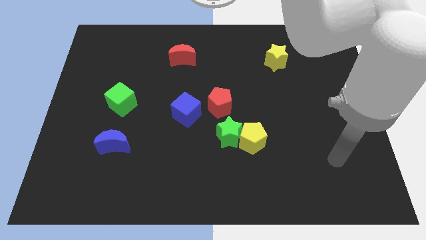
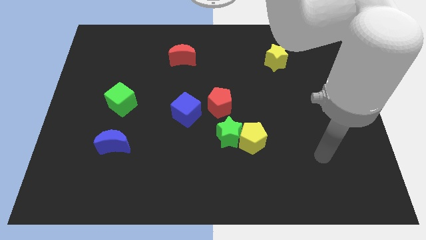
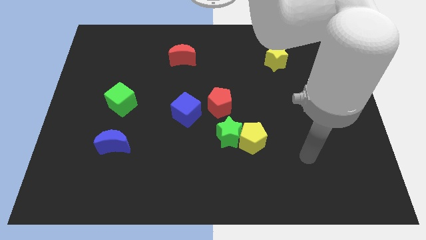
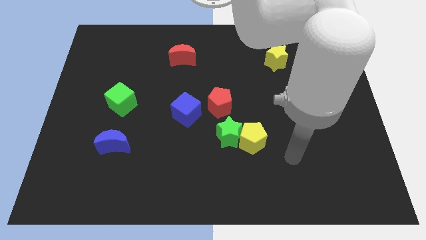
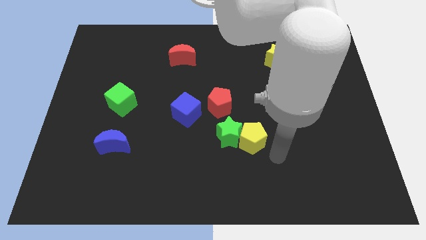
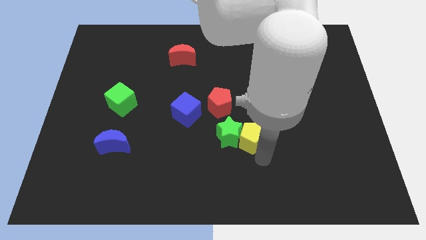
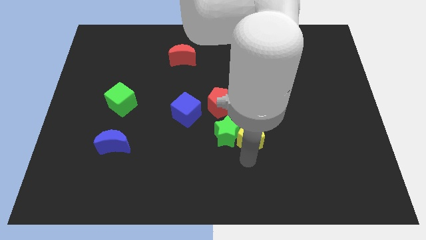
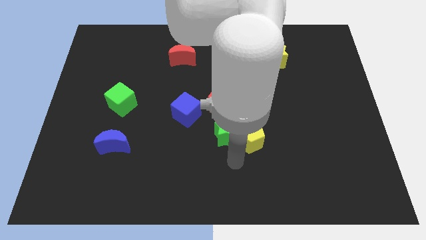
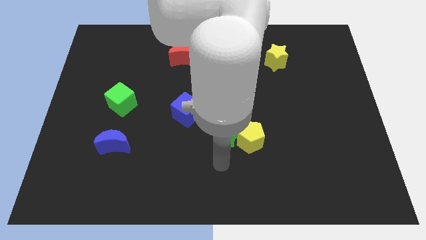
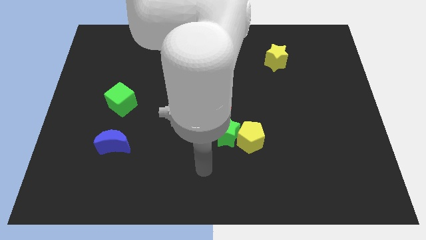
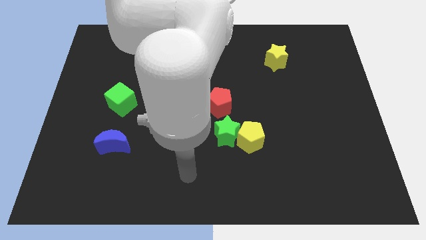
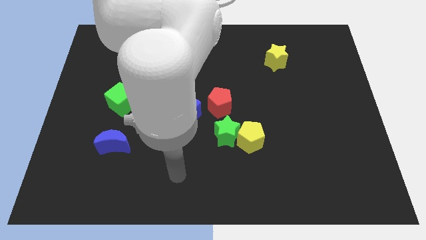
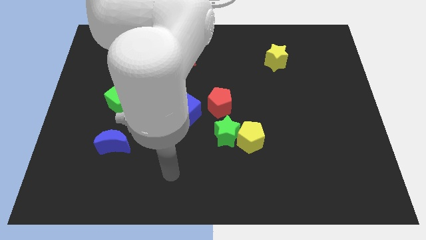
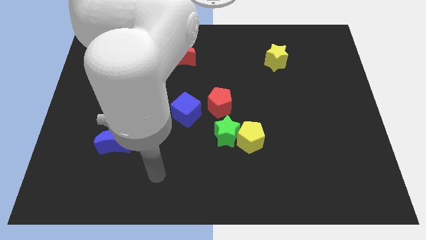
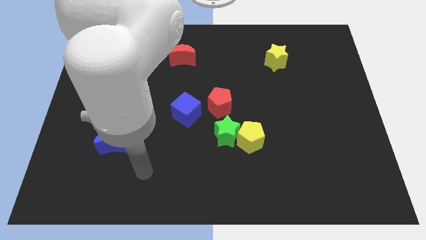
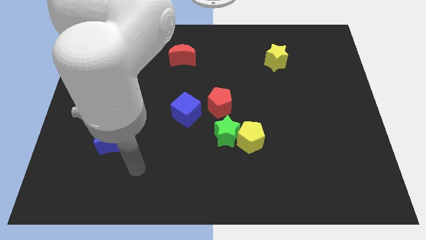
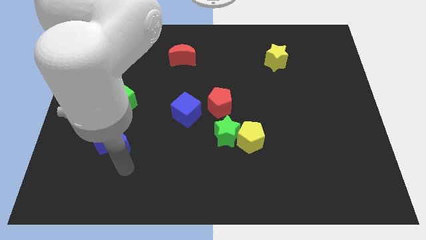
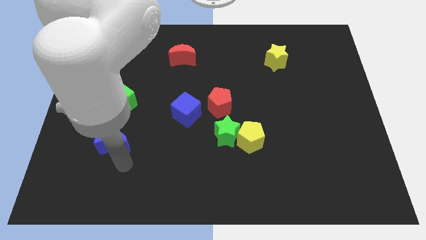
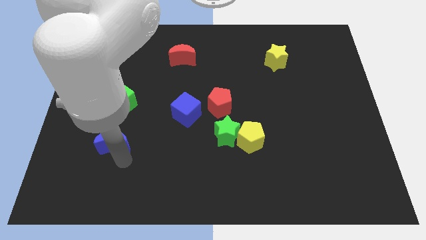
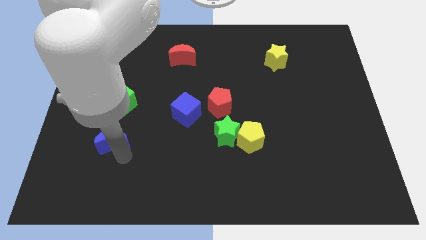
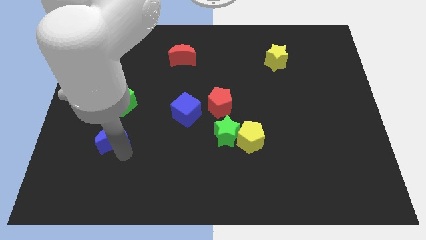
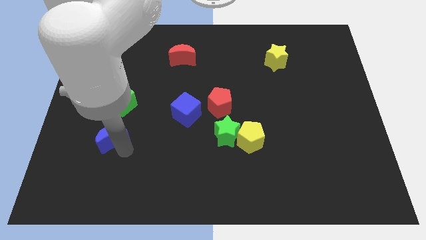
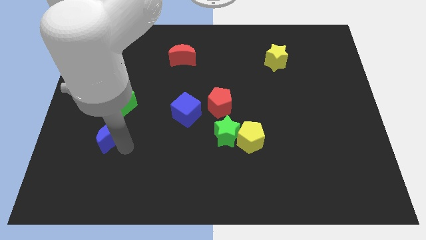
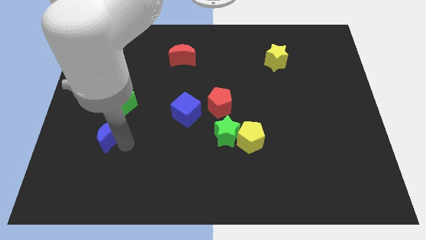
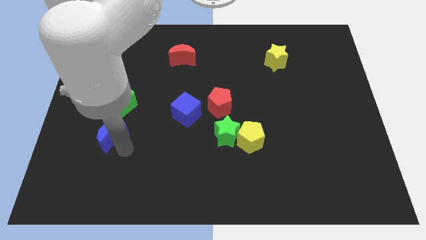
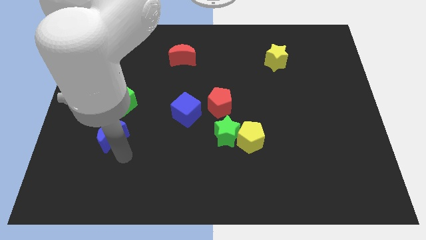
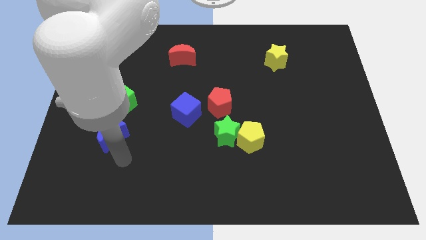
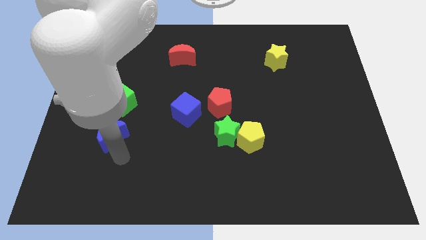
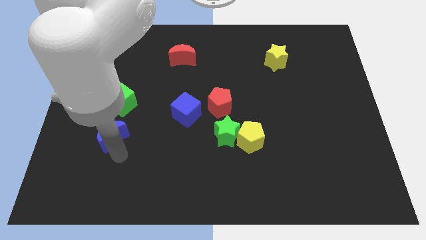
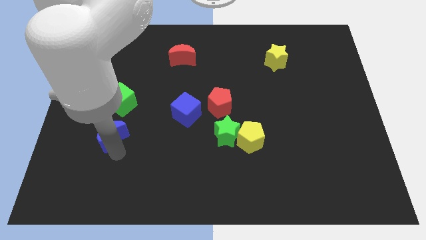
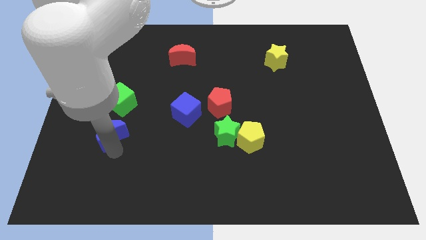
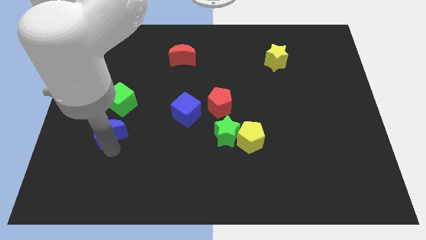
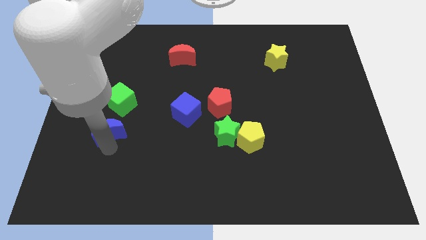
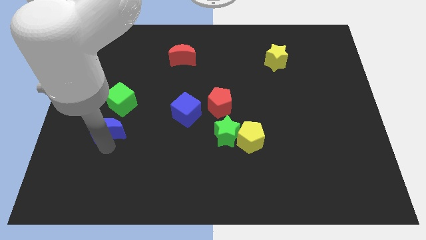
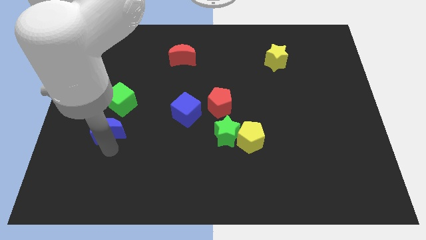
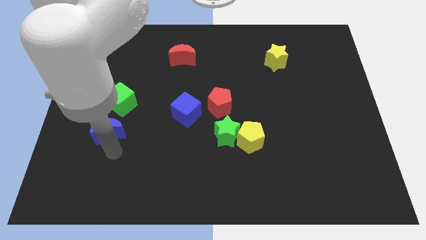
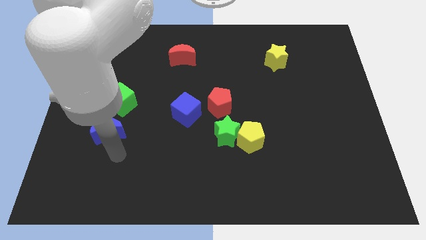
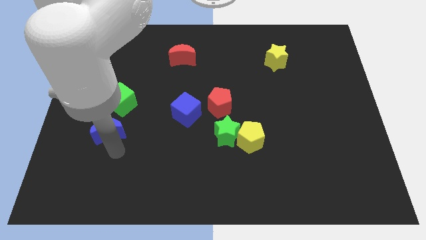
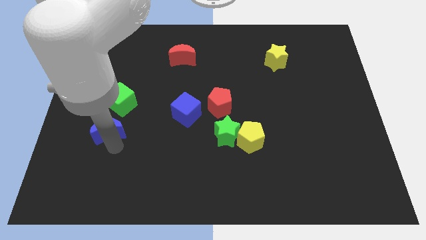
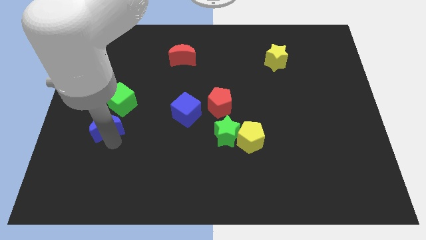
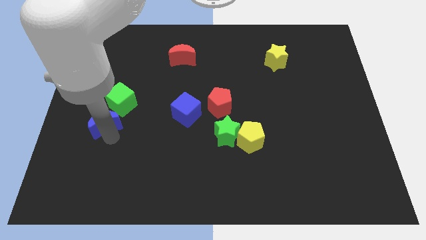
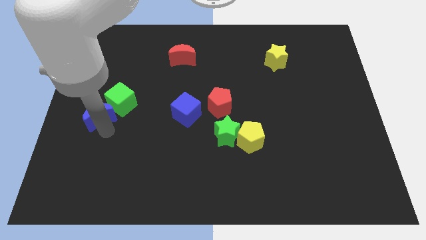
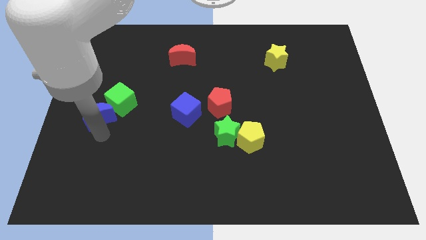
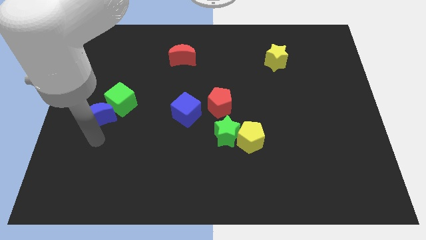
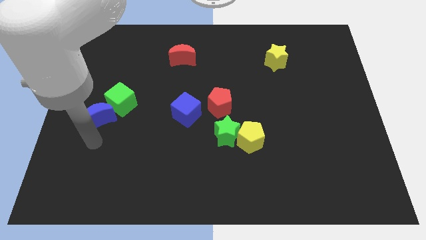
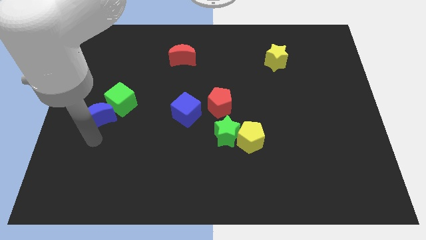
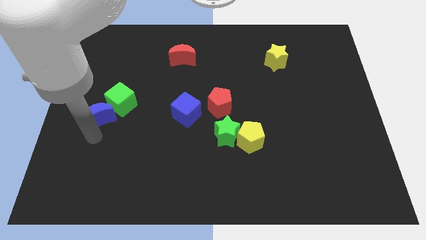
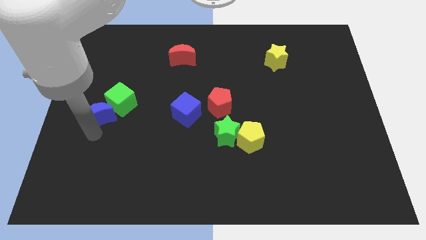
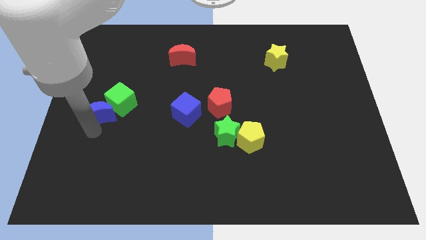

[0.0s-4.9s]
slide the blue moon a bit upwards

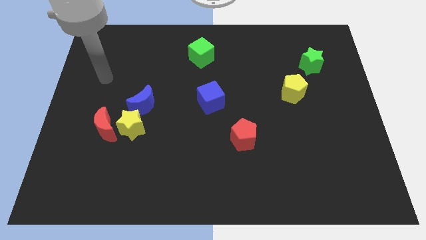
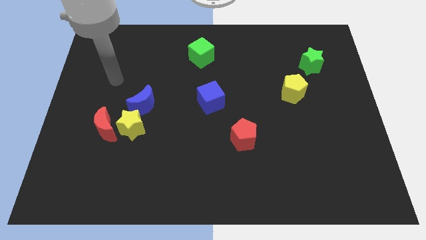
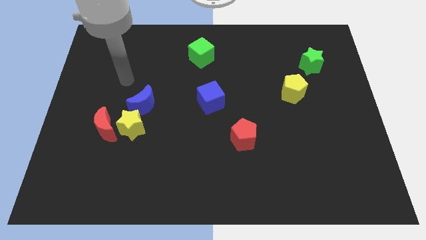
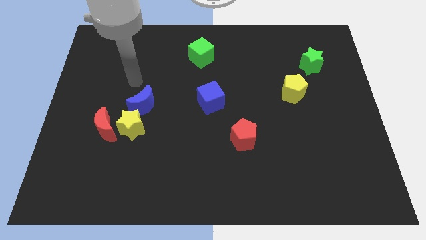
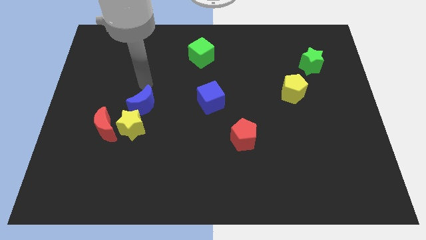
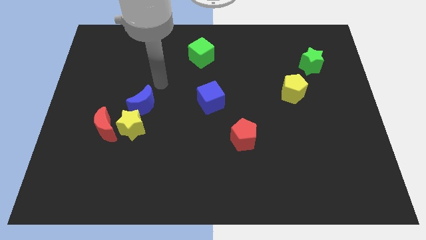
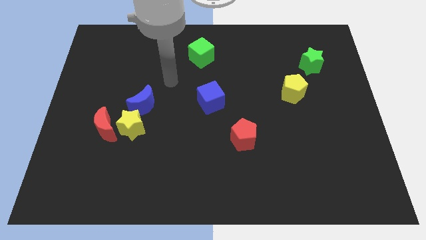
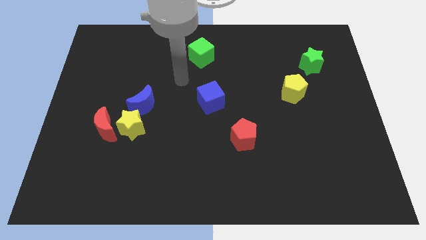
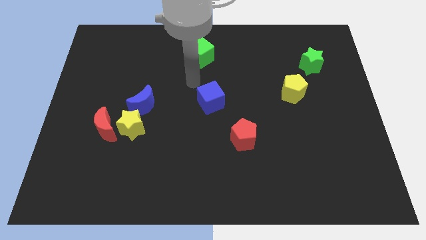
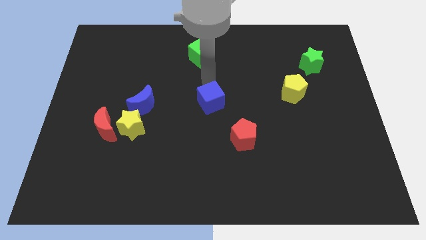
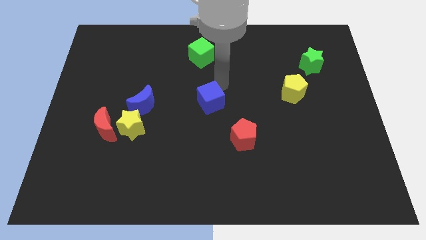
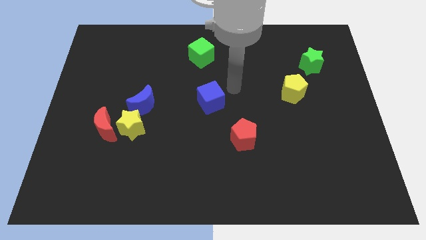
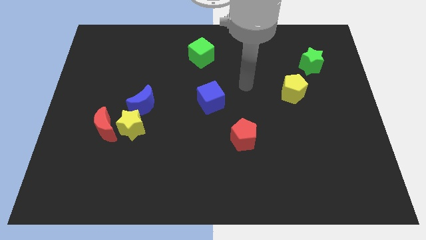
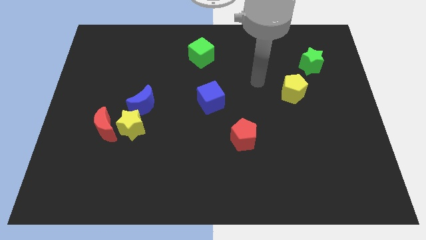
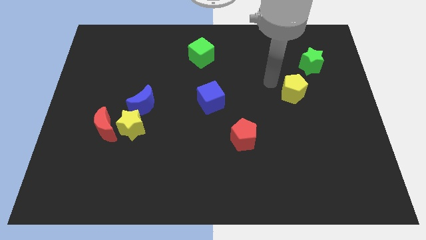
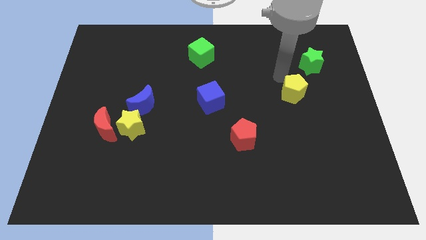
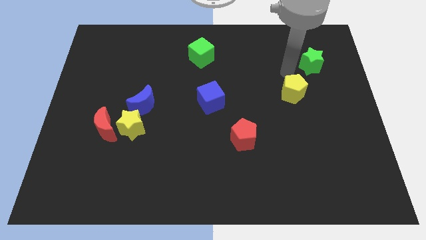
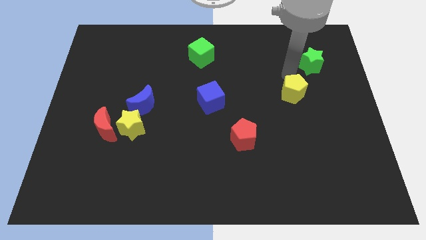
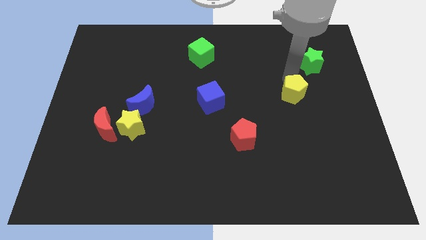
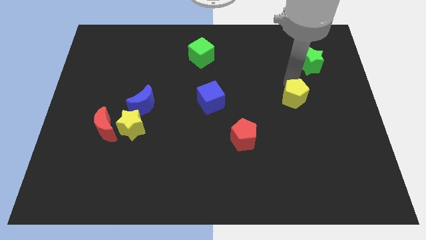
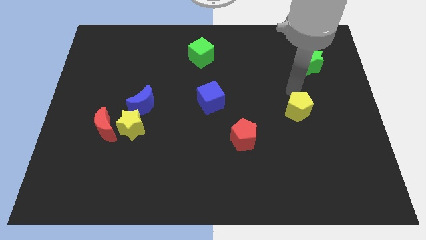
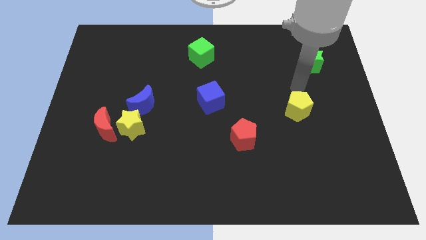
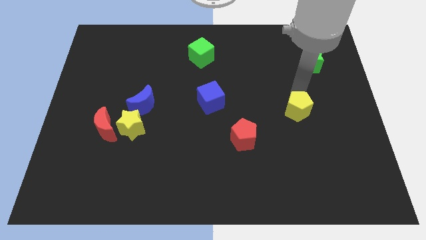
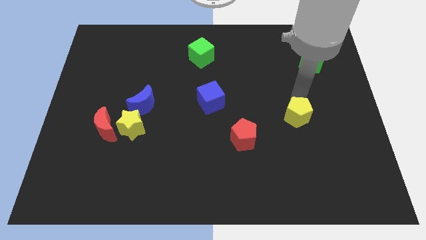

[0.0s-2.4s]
slightly move the yellow pentagon downwards

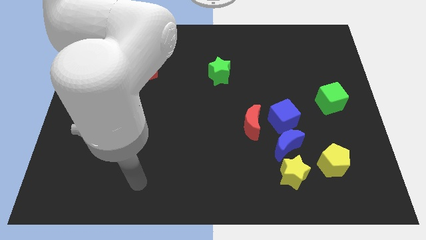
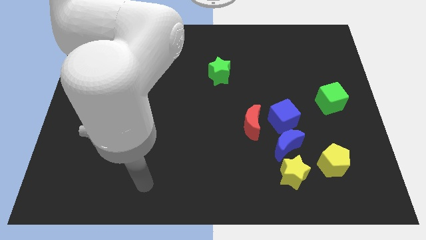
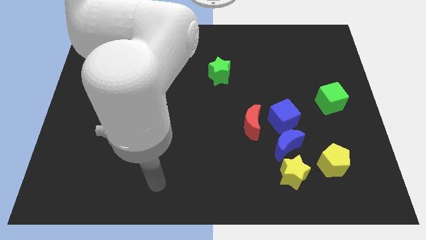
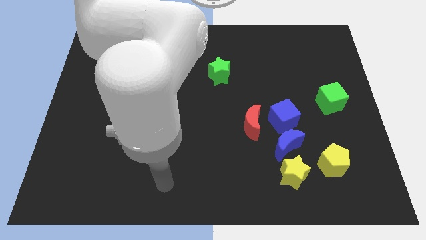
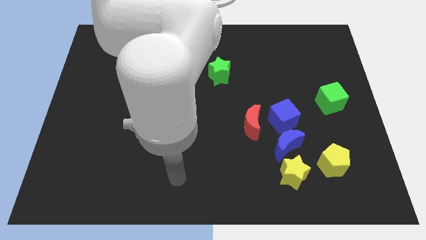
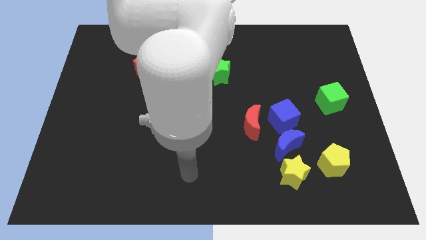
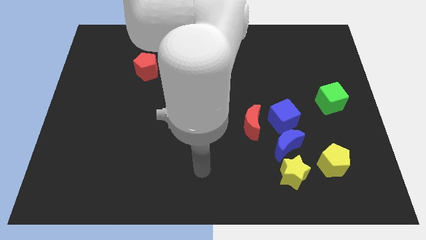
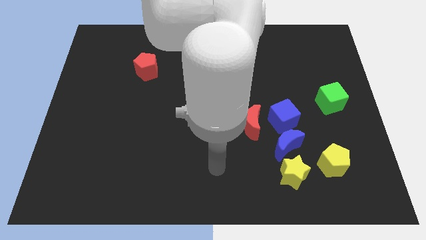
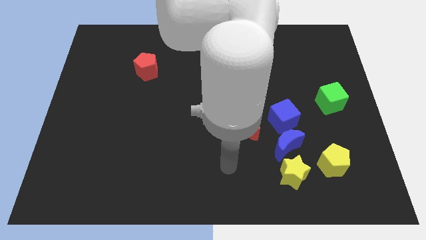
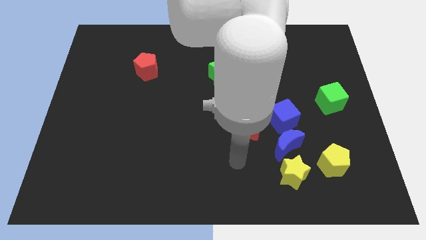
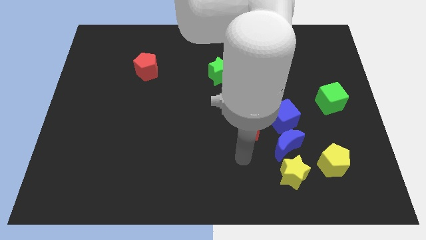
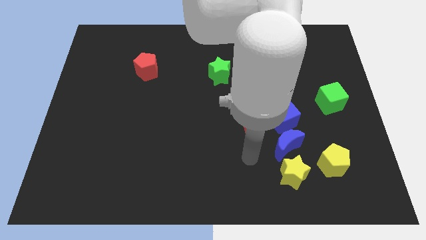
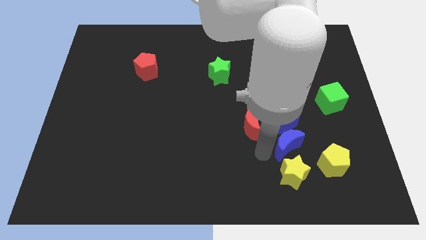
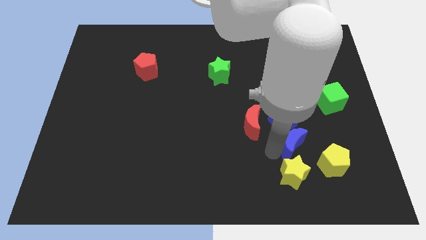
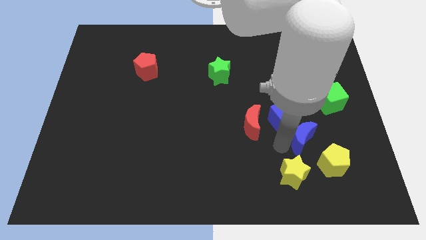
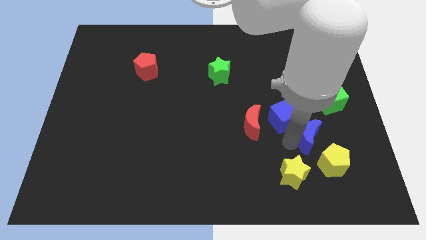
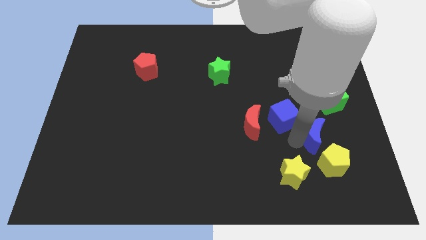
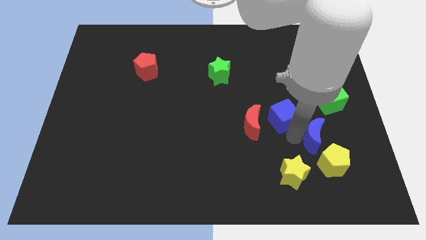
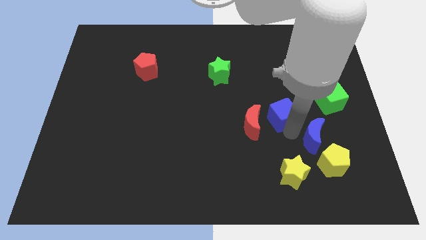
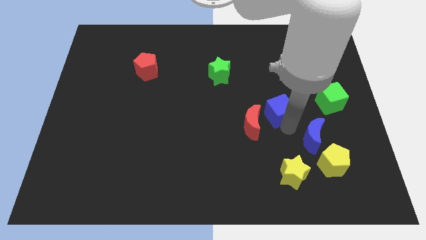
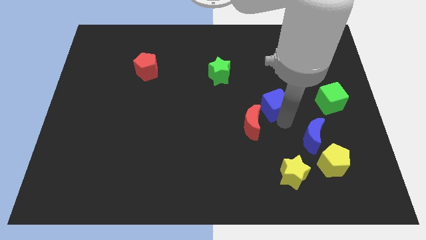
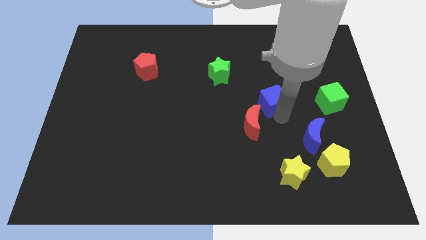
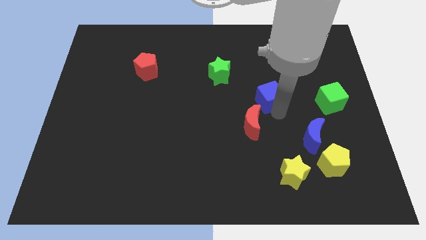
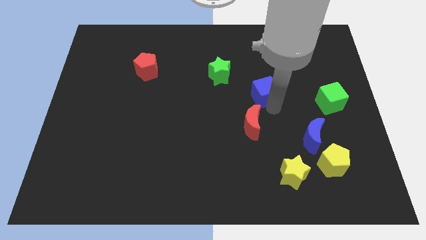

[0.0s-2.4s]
push the blue cube upwards a little
